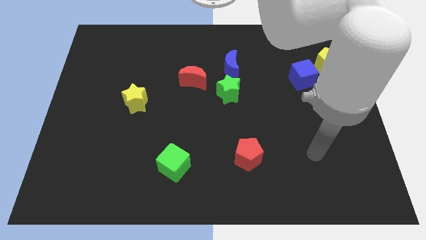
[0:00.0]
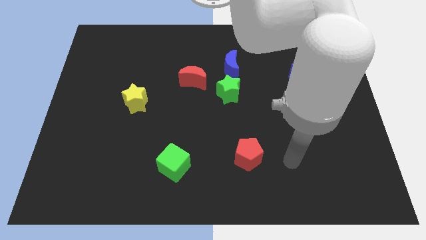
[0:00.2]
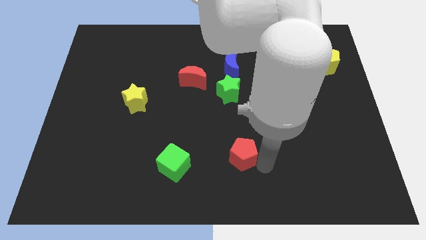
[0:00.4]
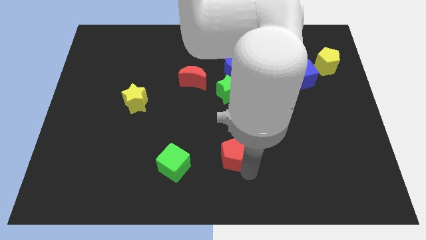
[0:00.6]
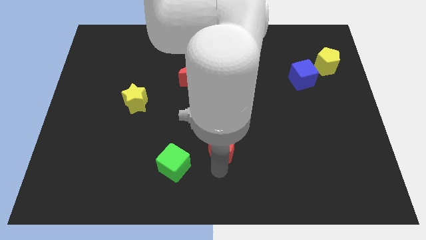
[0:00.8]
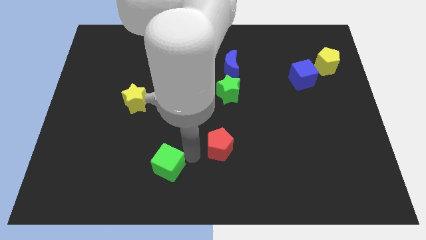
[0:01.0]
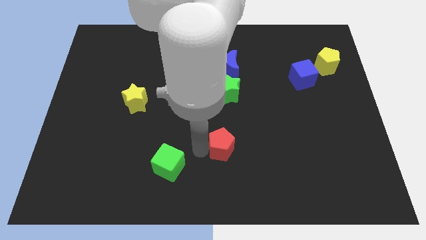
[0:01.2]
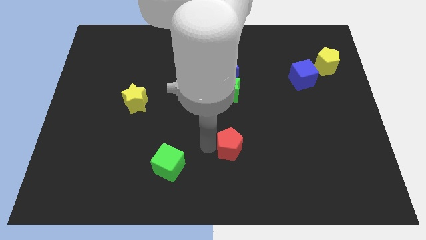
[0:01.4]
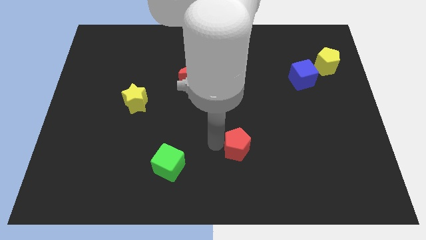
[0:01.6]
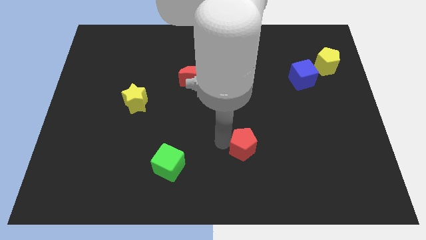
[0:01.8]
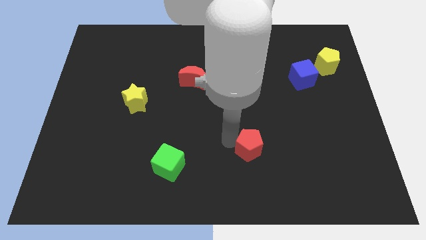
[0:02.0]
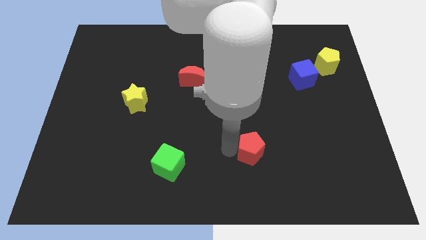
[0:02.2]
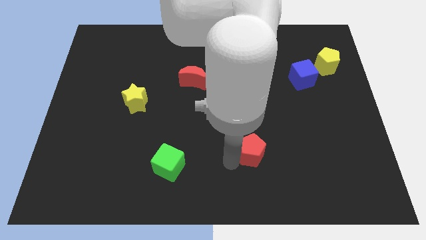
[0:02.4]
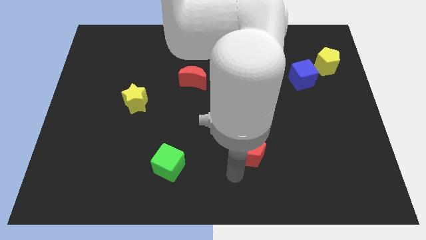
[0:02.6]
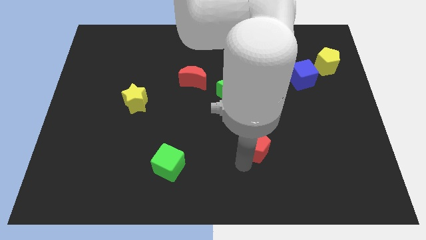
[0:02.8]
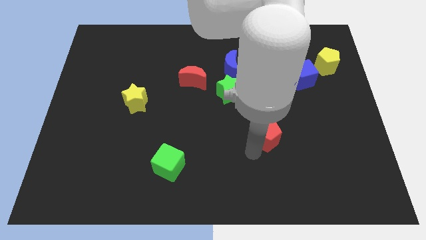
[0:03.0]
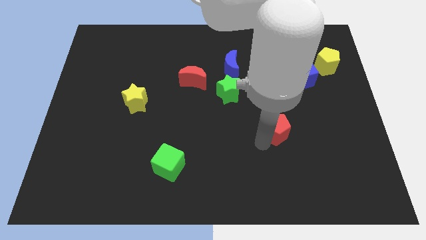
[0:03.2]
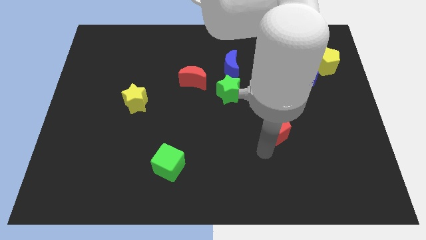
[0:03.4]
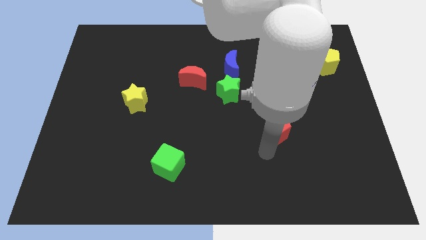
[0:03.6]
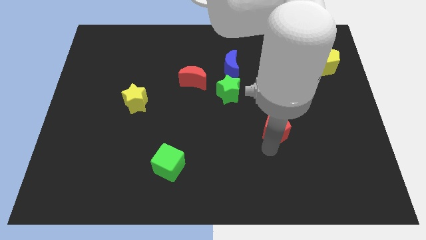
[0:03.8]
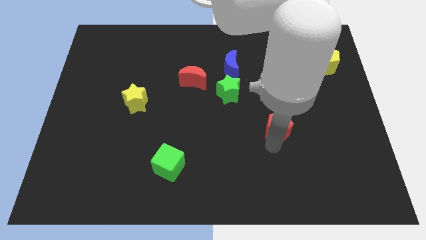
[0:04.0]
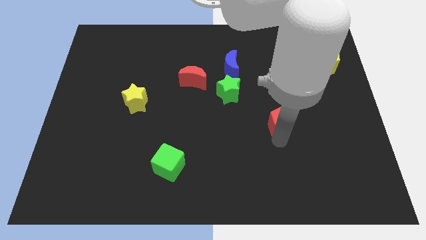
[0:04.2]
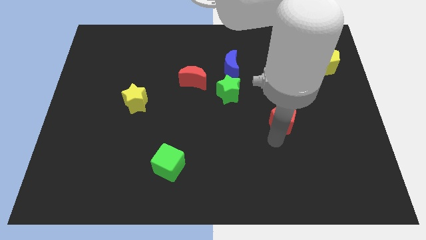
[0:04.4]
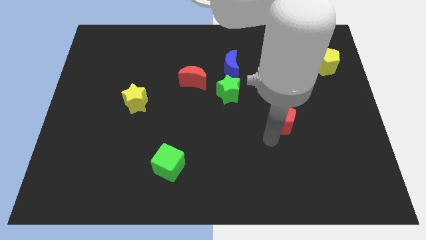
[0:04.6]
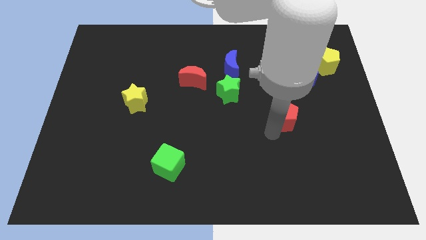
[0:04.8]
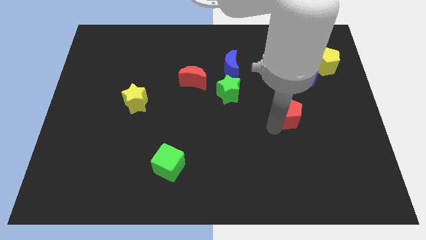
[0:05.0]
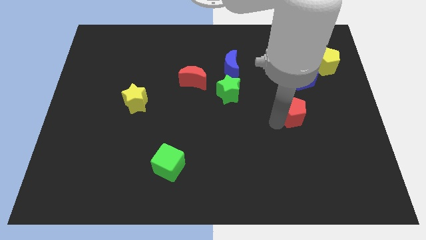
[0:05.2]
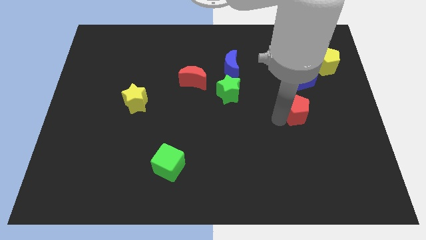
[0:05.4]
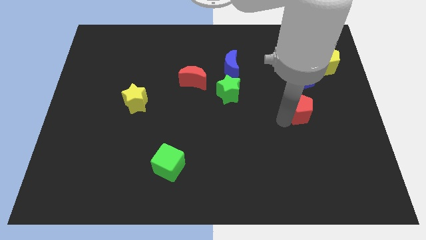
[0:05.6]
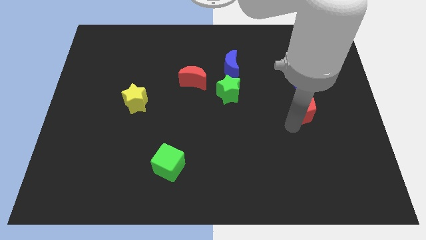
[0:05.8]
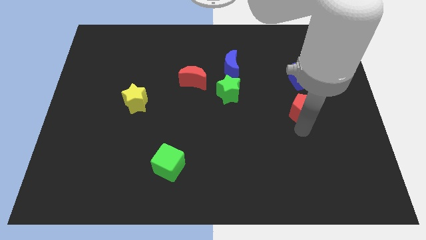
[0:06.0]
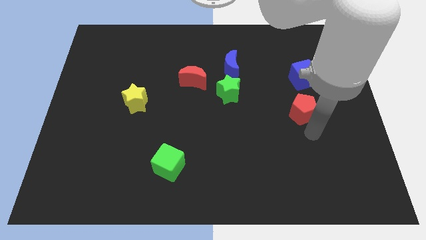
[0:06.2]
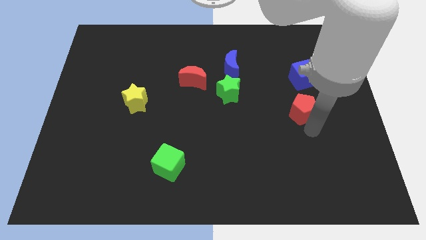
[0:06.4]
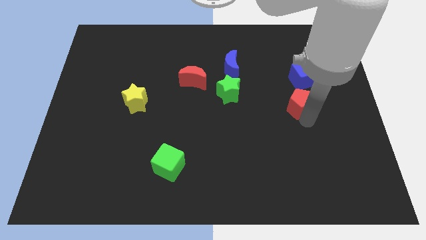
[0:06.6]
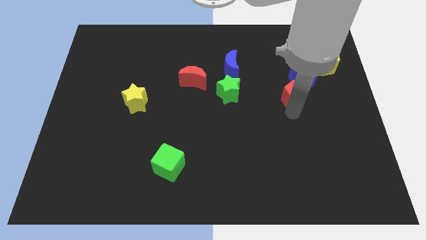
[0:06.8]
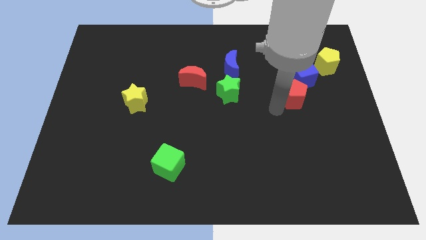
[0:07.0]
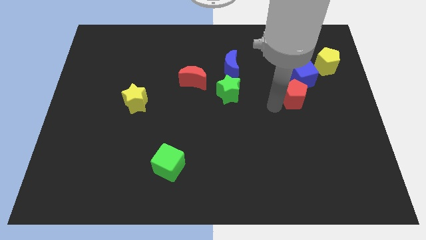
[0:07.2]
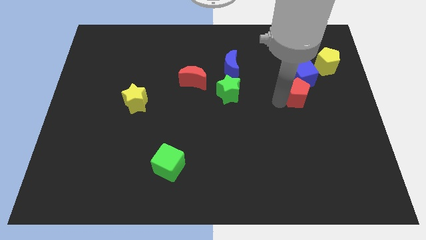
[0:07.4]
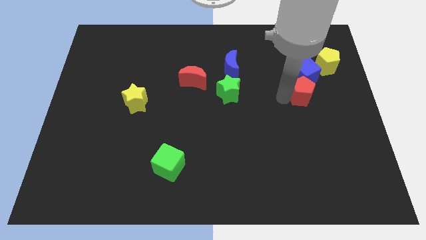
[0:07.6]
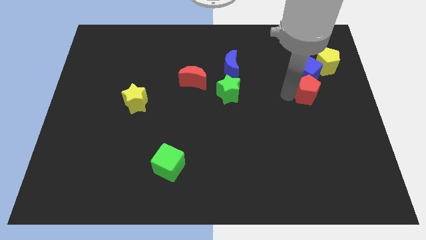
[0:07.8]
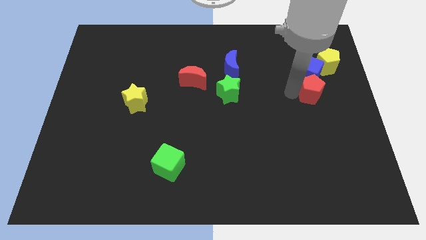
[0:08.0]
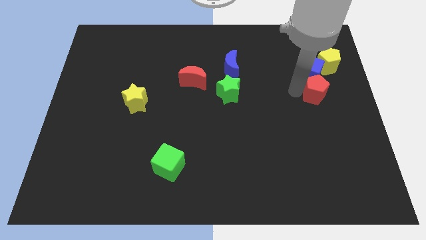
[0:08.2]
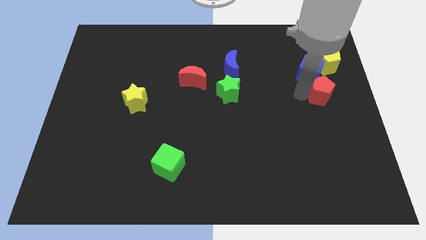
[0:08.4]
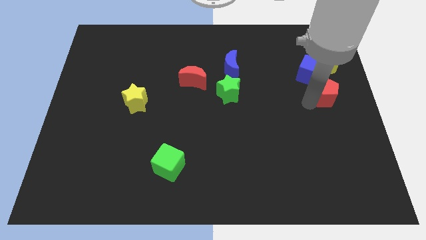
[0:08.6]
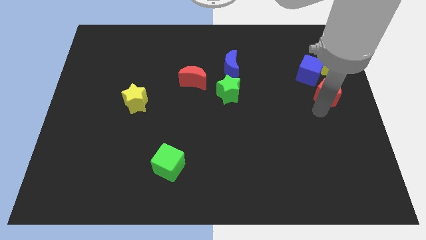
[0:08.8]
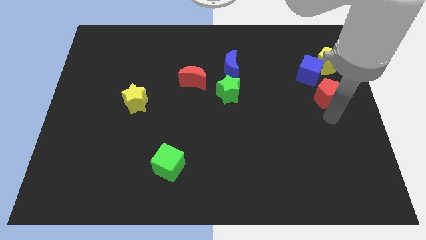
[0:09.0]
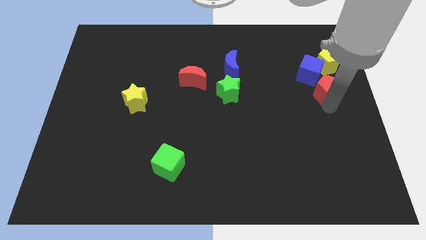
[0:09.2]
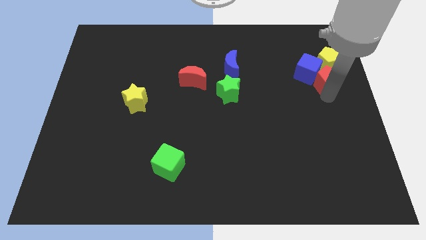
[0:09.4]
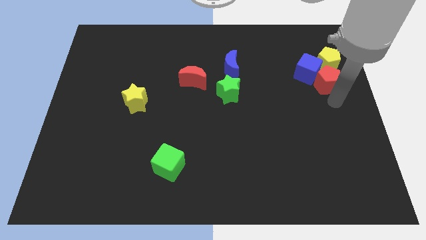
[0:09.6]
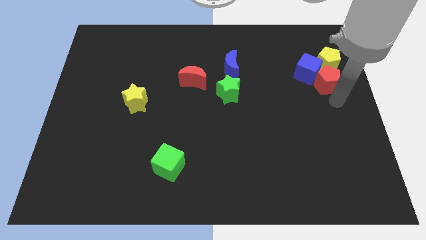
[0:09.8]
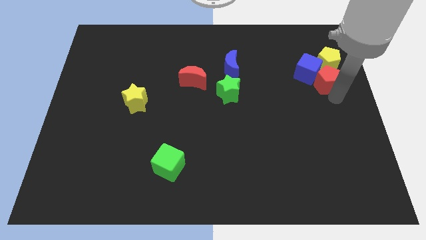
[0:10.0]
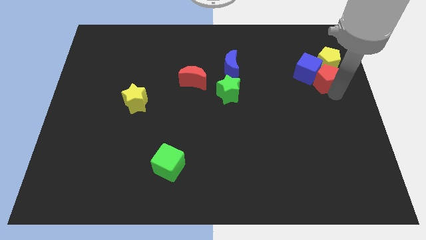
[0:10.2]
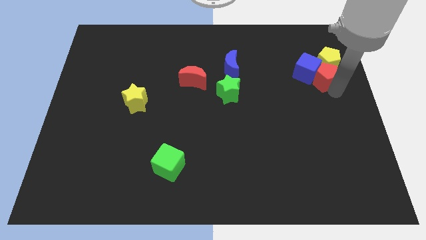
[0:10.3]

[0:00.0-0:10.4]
slide the red pentagon close to the yellow pentagon

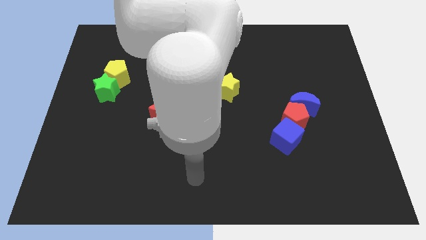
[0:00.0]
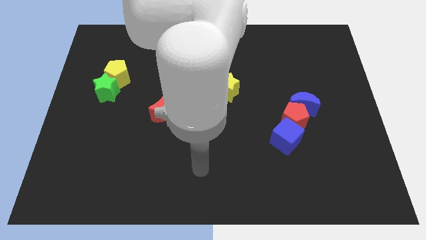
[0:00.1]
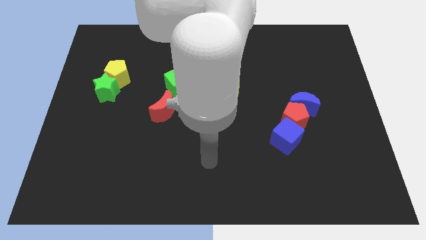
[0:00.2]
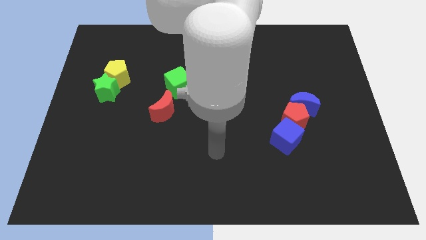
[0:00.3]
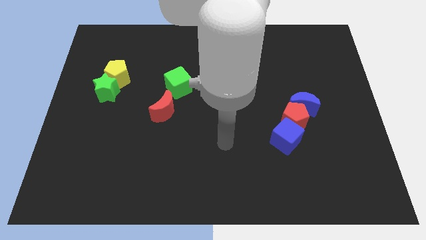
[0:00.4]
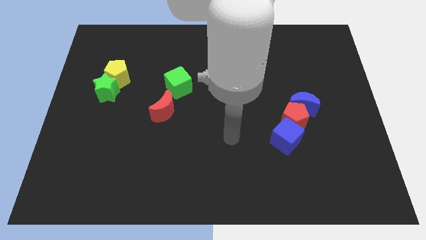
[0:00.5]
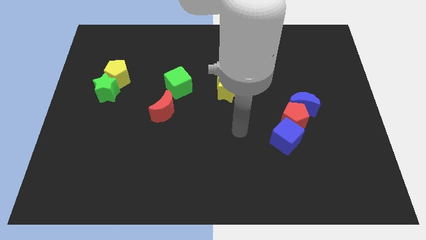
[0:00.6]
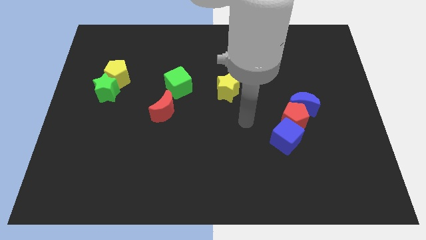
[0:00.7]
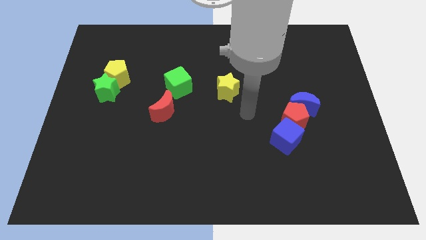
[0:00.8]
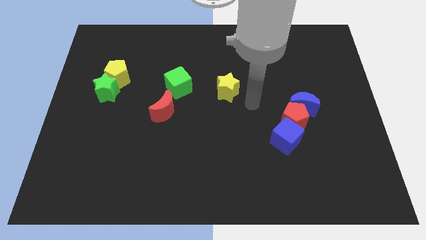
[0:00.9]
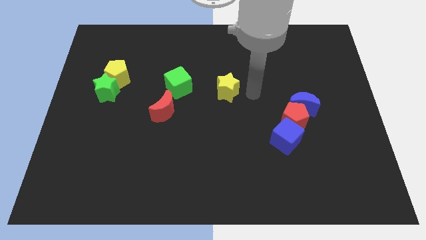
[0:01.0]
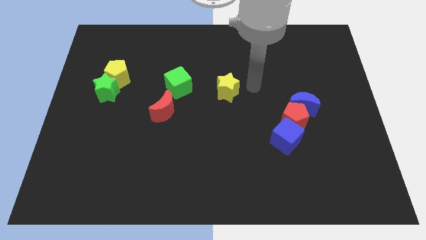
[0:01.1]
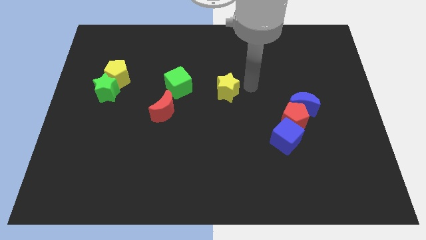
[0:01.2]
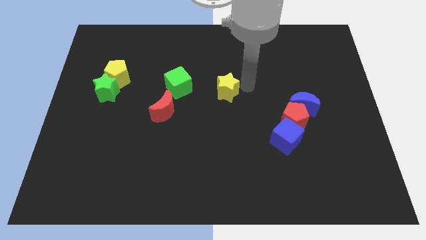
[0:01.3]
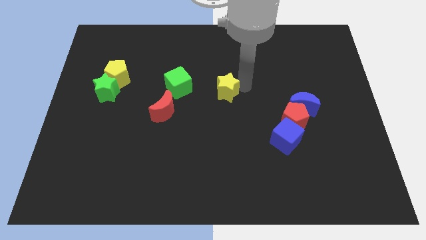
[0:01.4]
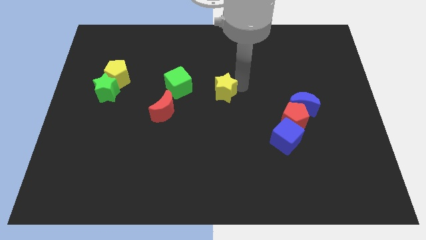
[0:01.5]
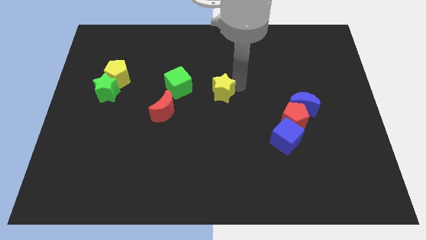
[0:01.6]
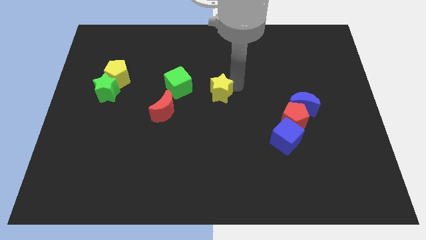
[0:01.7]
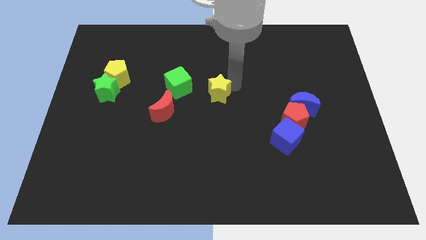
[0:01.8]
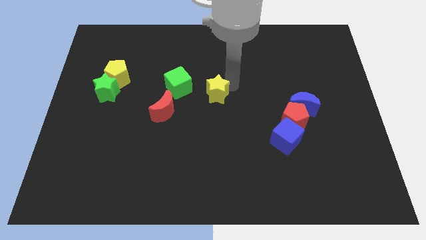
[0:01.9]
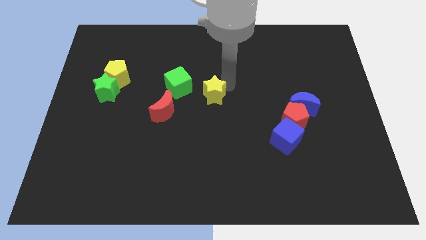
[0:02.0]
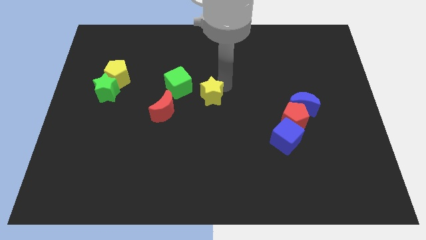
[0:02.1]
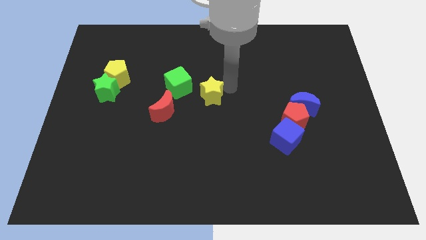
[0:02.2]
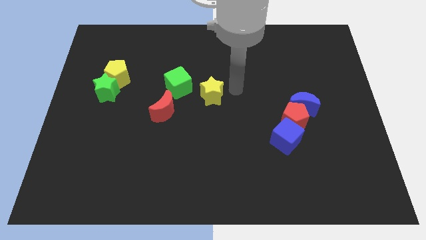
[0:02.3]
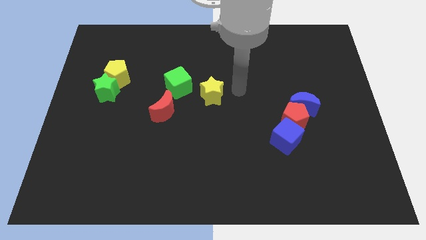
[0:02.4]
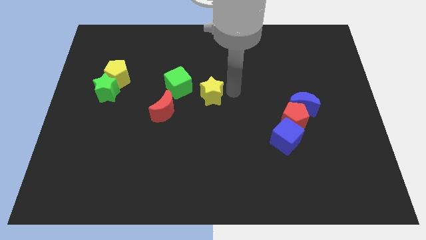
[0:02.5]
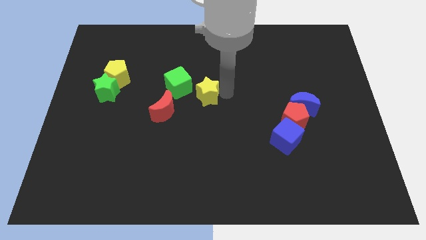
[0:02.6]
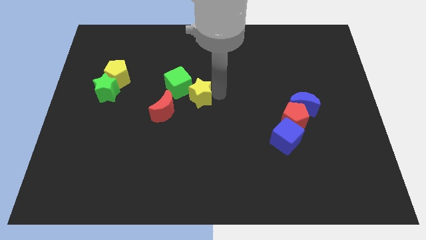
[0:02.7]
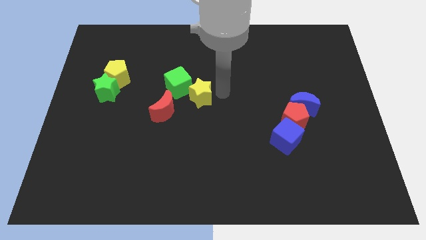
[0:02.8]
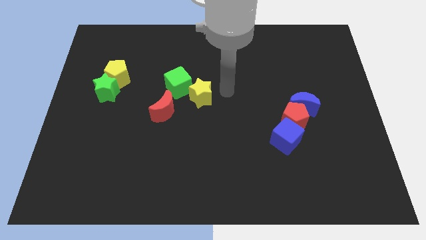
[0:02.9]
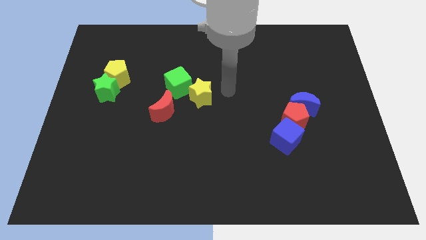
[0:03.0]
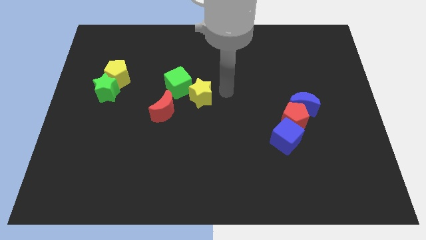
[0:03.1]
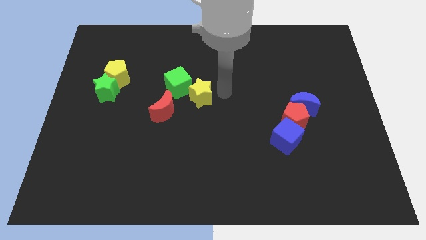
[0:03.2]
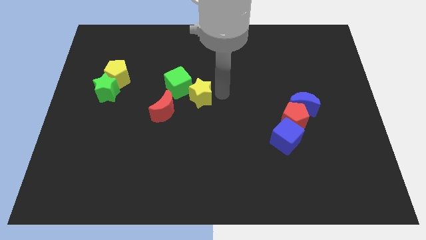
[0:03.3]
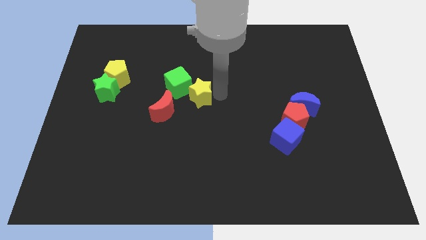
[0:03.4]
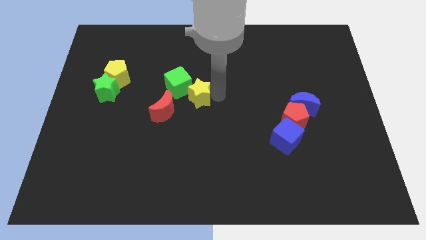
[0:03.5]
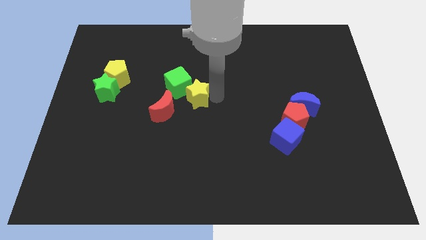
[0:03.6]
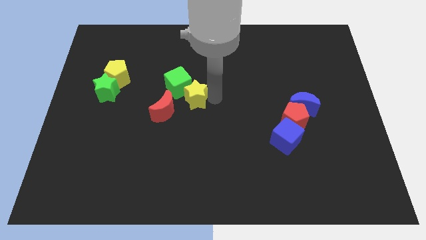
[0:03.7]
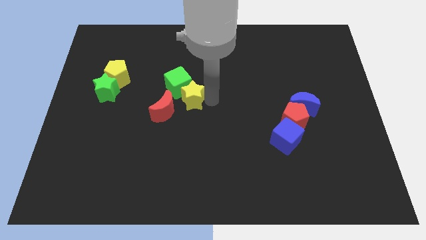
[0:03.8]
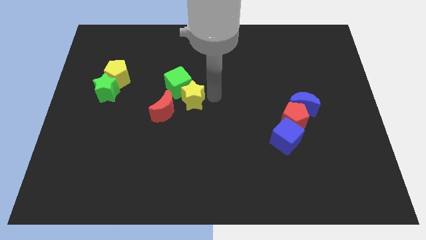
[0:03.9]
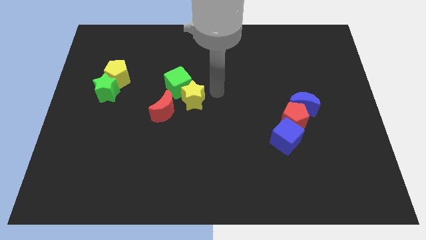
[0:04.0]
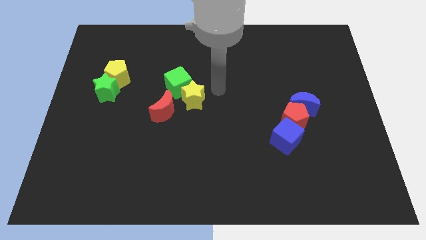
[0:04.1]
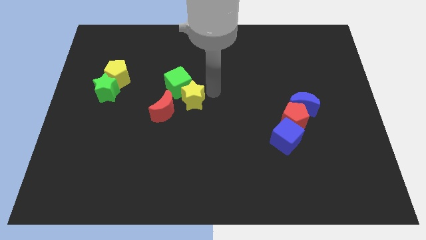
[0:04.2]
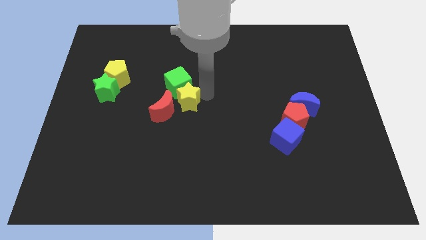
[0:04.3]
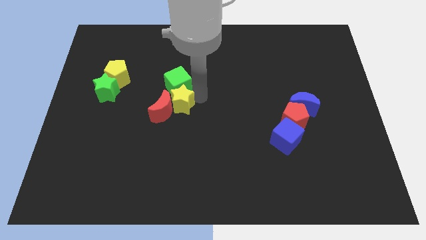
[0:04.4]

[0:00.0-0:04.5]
put the yellow star close to the red moon
